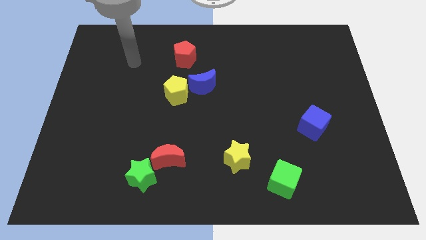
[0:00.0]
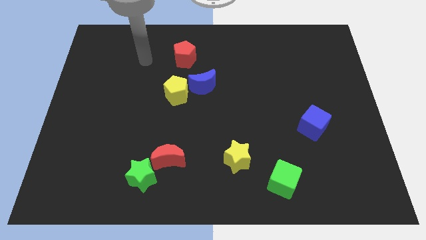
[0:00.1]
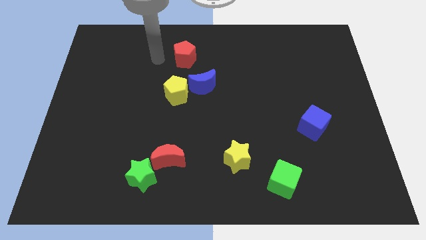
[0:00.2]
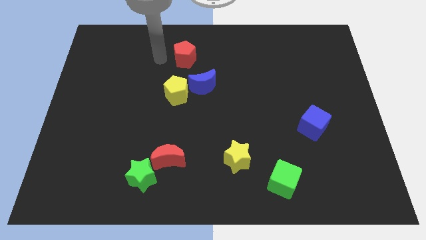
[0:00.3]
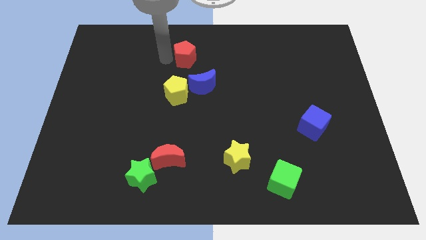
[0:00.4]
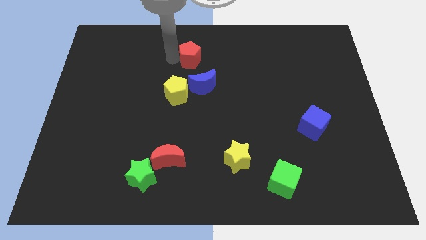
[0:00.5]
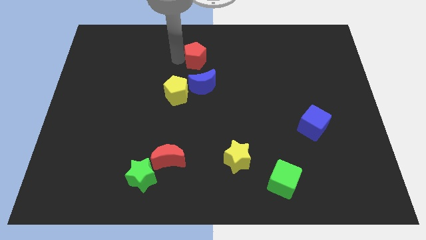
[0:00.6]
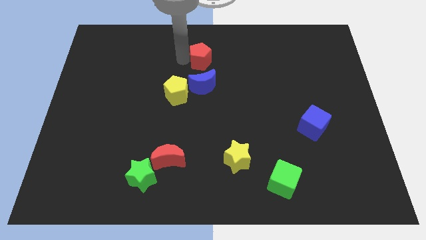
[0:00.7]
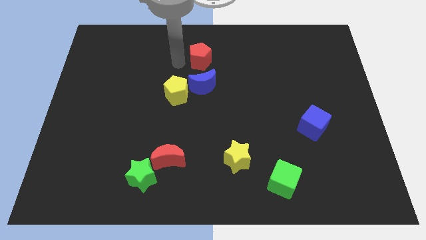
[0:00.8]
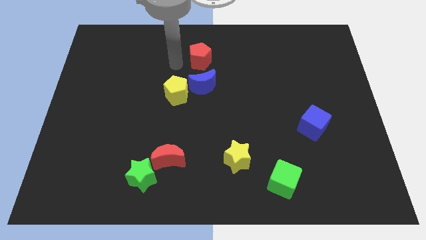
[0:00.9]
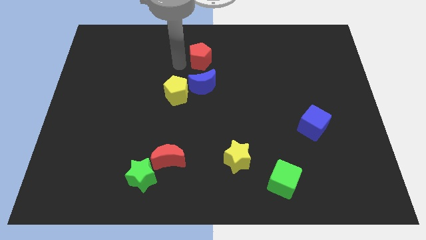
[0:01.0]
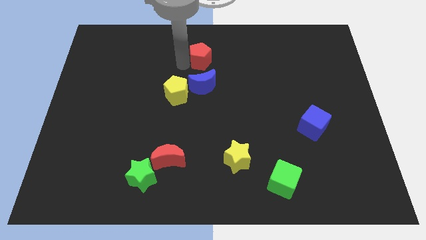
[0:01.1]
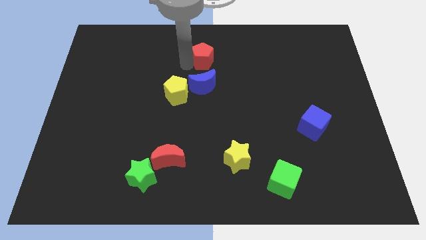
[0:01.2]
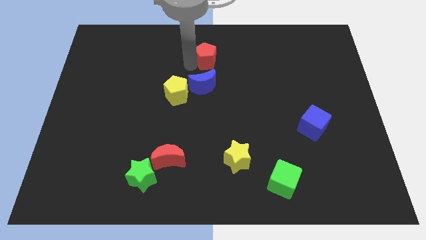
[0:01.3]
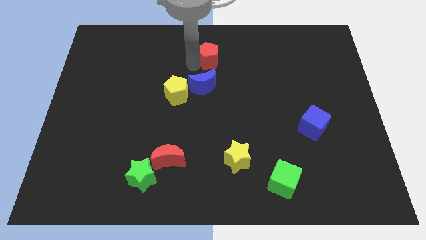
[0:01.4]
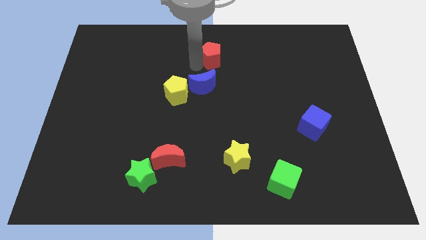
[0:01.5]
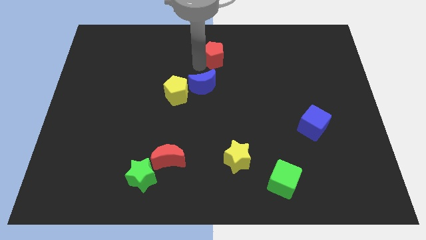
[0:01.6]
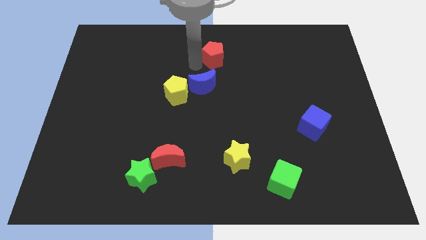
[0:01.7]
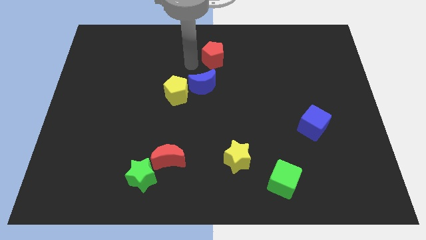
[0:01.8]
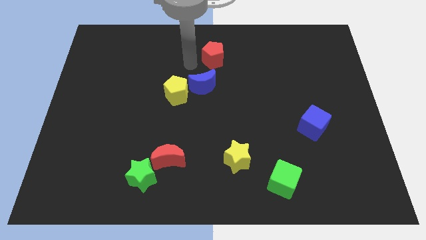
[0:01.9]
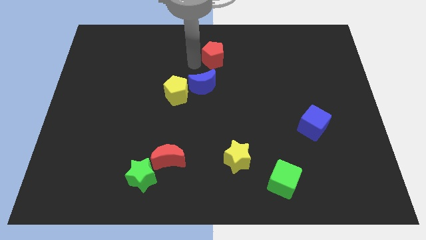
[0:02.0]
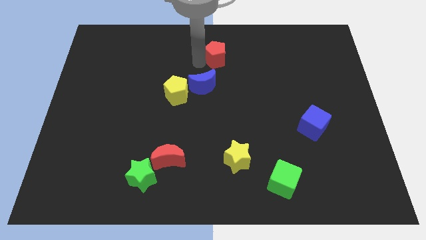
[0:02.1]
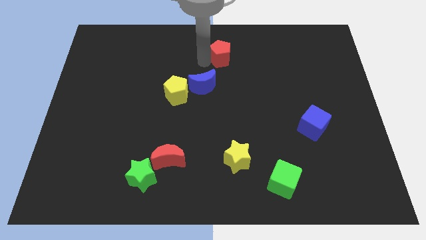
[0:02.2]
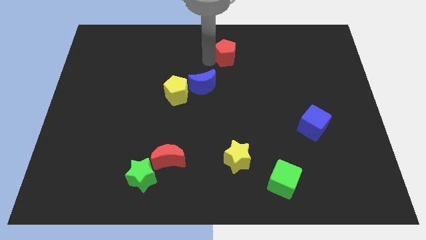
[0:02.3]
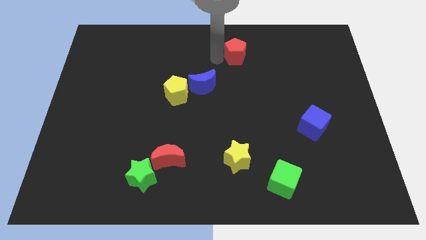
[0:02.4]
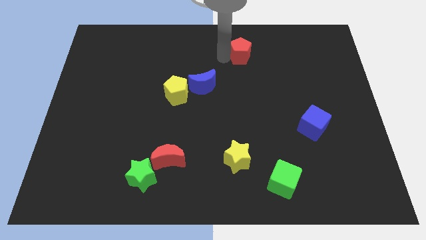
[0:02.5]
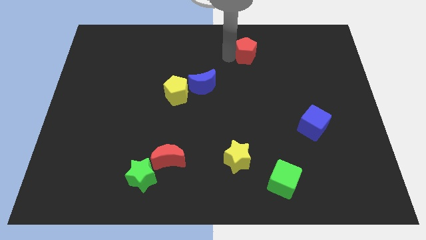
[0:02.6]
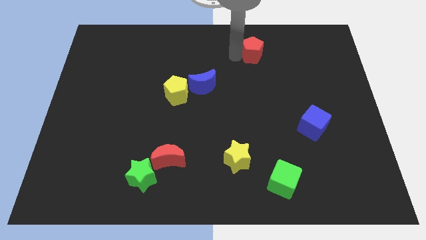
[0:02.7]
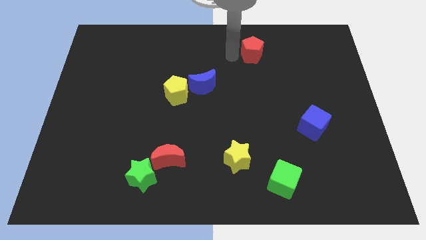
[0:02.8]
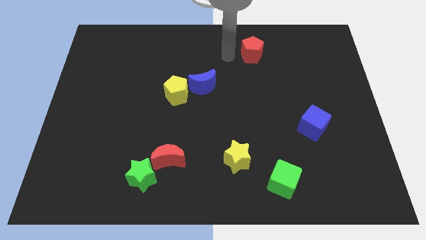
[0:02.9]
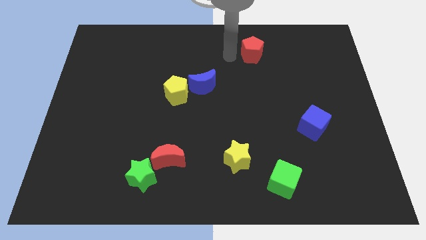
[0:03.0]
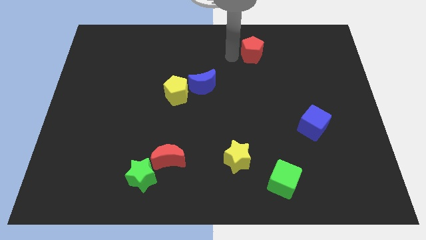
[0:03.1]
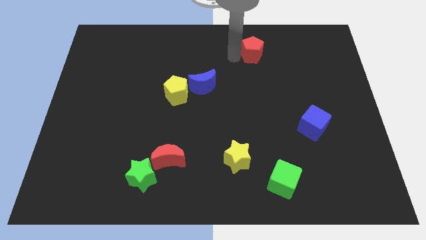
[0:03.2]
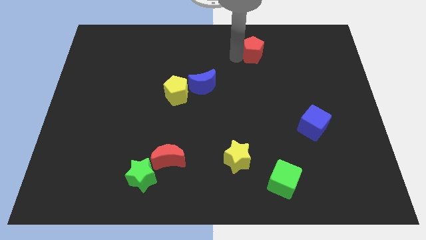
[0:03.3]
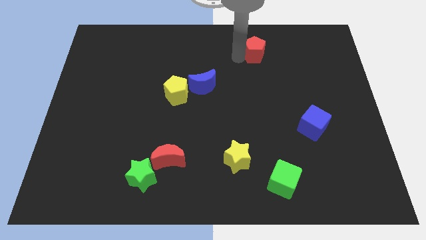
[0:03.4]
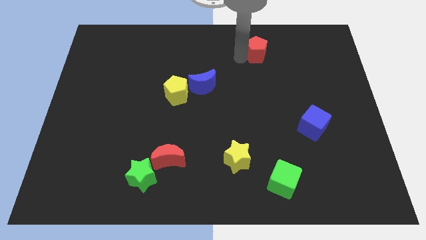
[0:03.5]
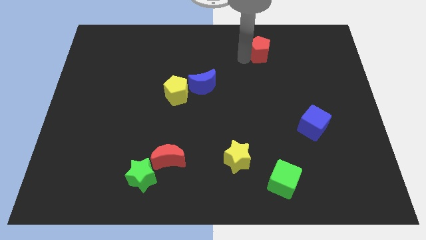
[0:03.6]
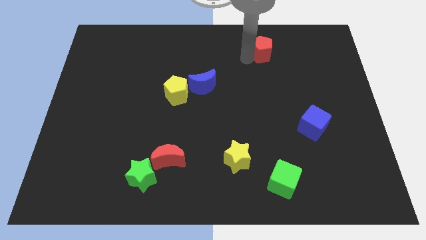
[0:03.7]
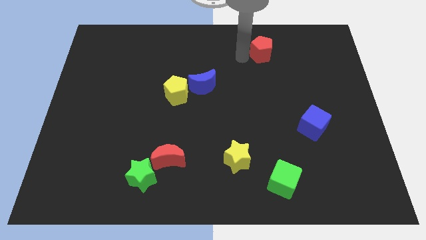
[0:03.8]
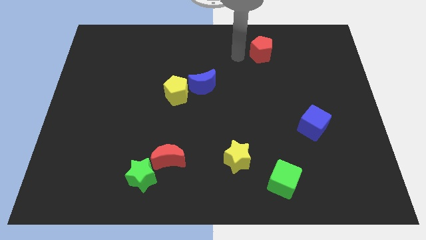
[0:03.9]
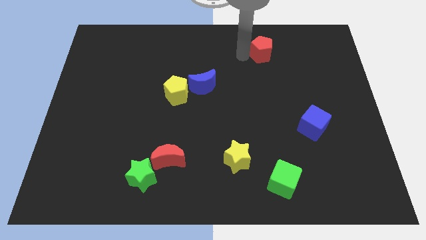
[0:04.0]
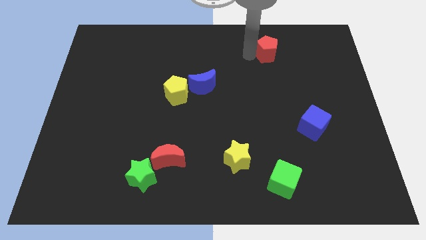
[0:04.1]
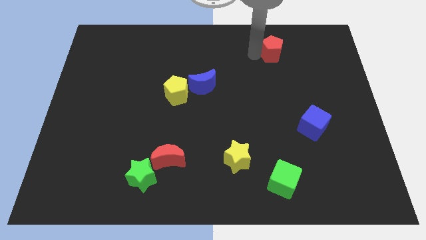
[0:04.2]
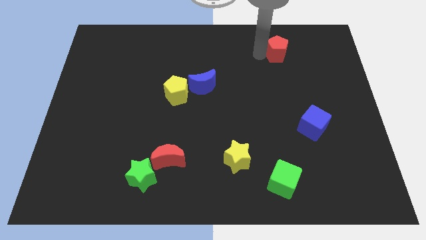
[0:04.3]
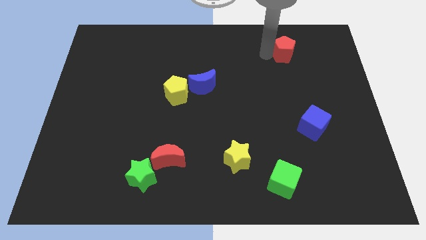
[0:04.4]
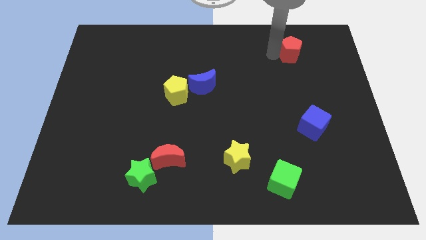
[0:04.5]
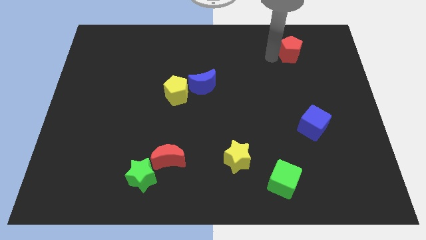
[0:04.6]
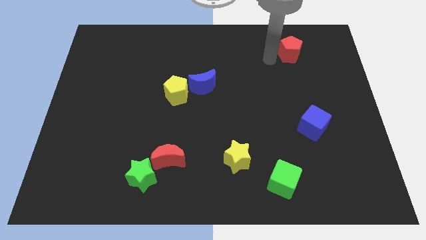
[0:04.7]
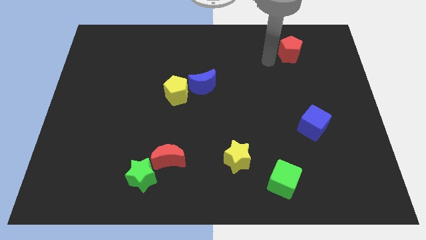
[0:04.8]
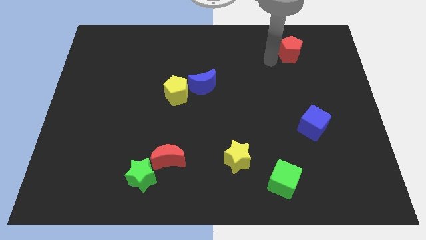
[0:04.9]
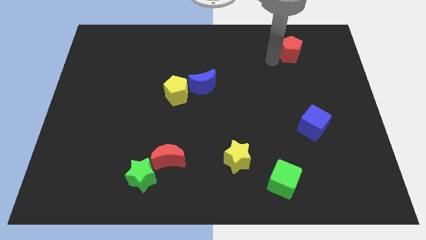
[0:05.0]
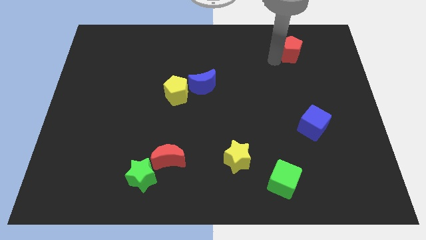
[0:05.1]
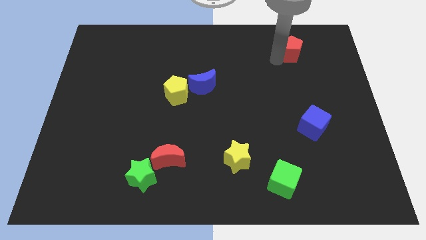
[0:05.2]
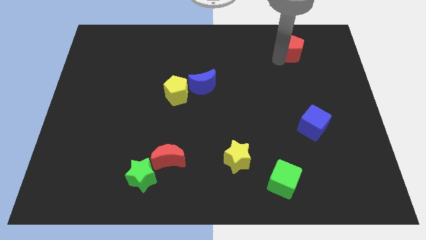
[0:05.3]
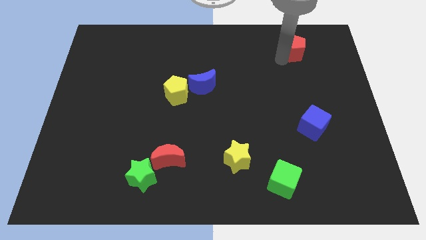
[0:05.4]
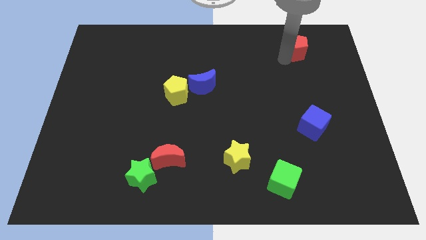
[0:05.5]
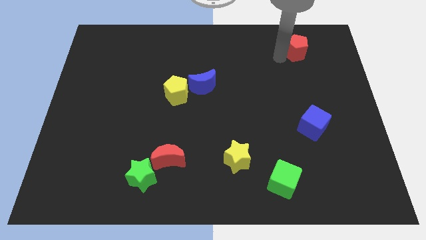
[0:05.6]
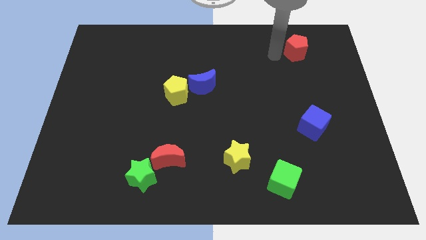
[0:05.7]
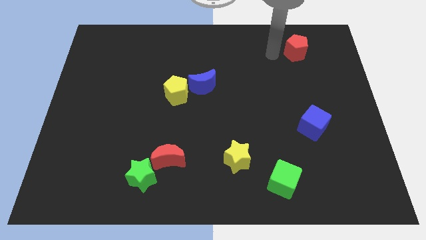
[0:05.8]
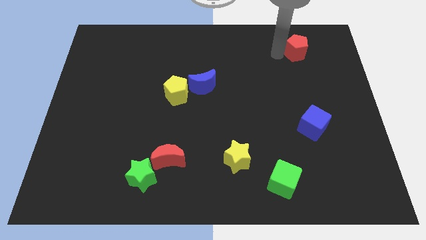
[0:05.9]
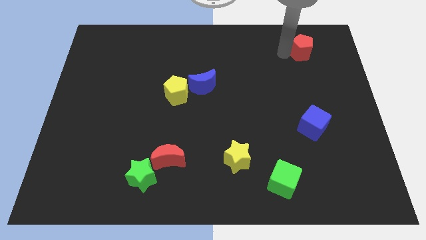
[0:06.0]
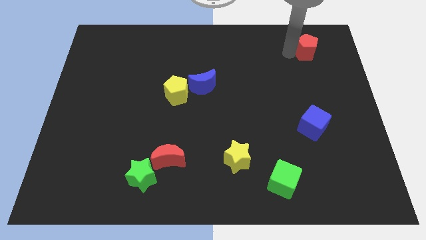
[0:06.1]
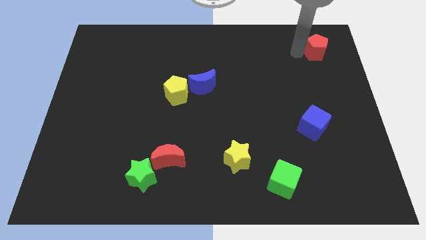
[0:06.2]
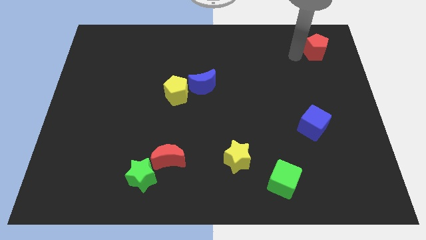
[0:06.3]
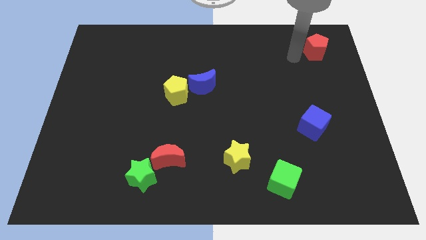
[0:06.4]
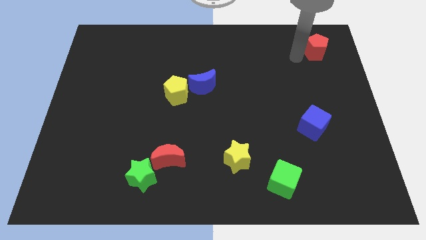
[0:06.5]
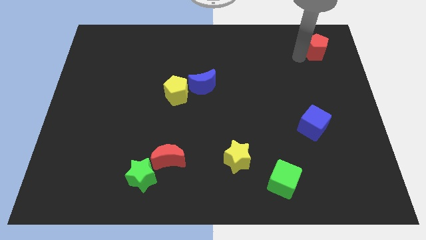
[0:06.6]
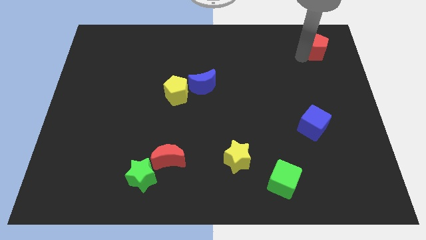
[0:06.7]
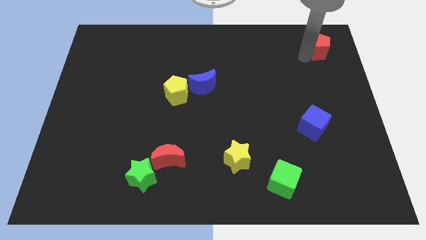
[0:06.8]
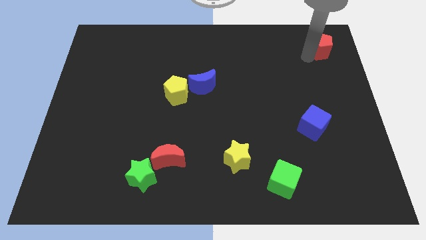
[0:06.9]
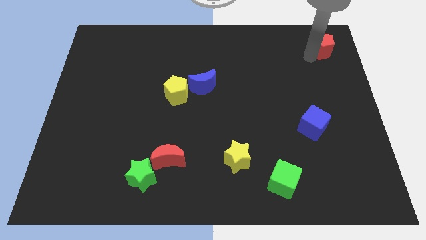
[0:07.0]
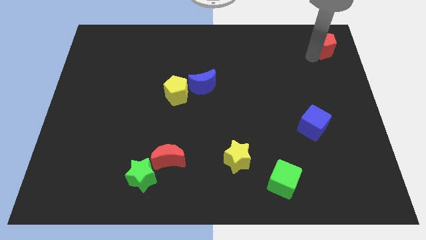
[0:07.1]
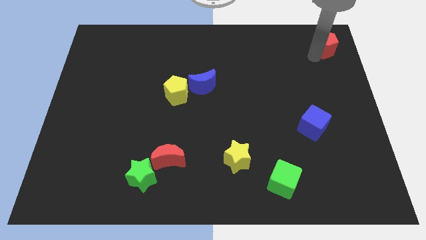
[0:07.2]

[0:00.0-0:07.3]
move the red pentagon to the top right corner
